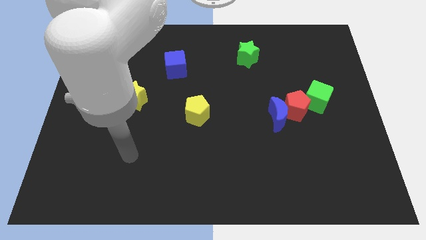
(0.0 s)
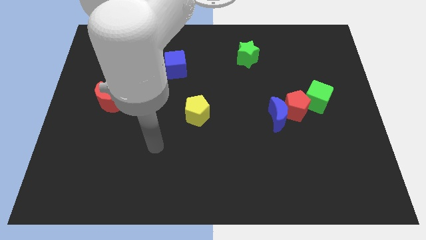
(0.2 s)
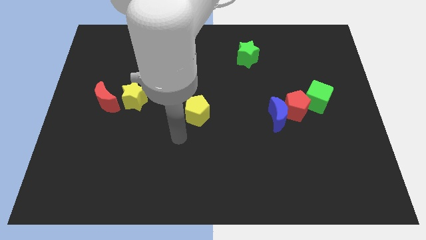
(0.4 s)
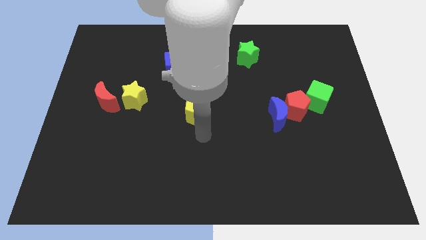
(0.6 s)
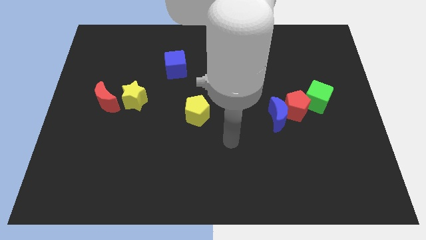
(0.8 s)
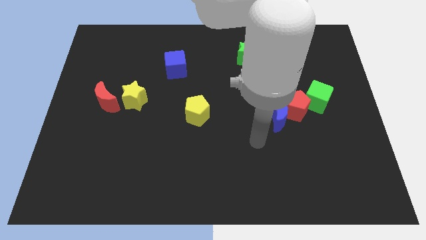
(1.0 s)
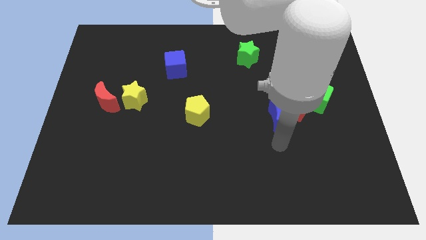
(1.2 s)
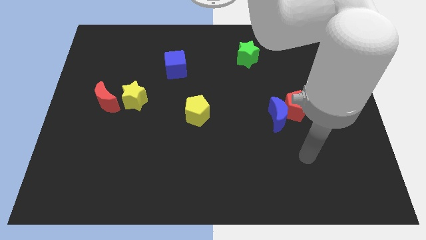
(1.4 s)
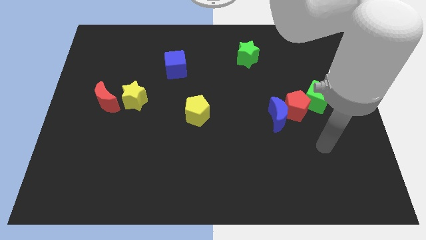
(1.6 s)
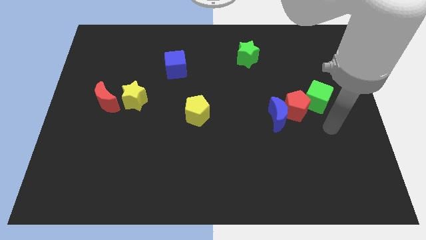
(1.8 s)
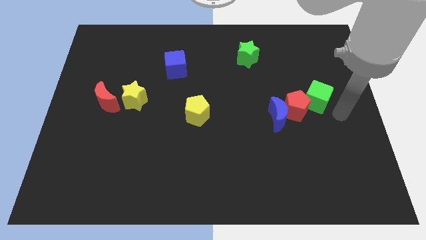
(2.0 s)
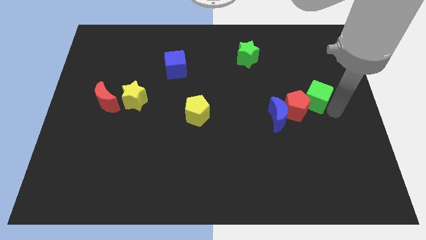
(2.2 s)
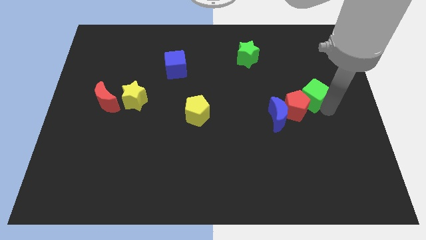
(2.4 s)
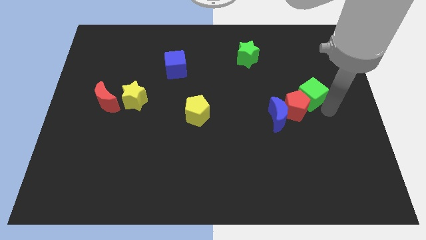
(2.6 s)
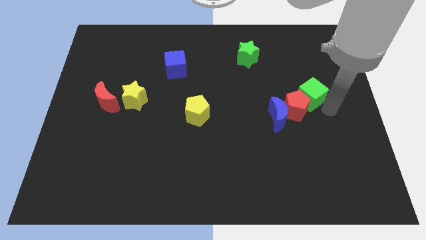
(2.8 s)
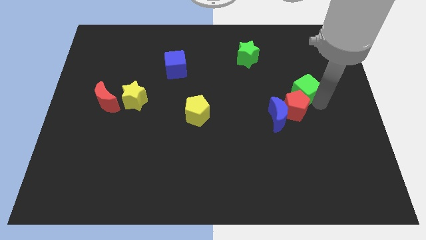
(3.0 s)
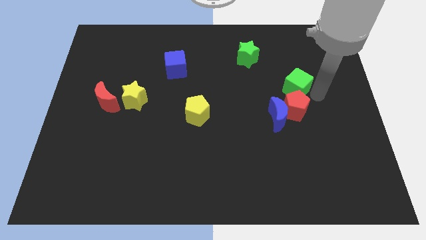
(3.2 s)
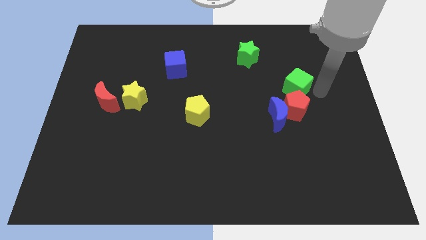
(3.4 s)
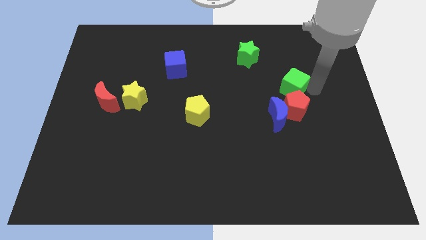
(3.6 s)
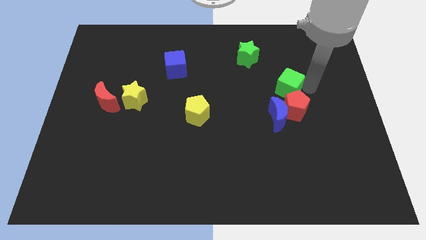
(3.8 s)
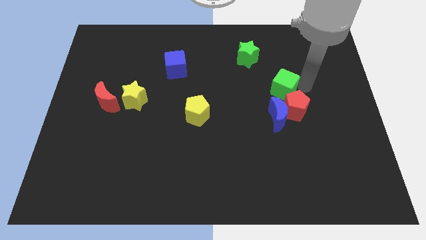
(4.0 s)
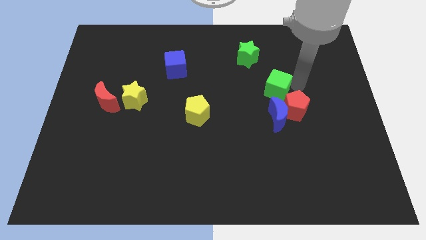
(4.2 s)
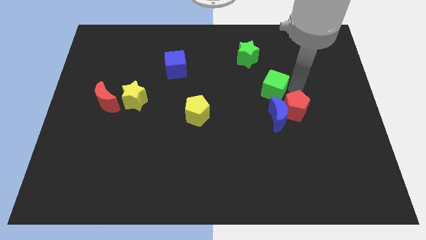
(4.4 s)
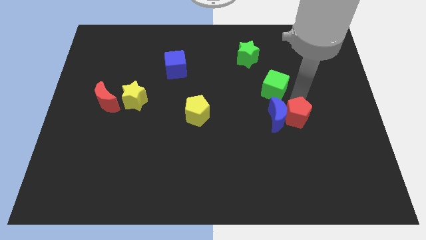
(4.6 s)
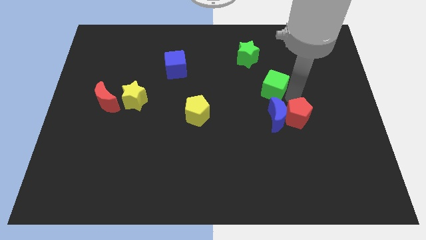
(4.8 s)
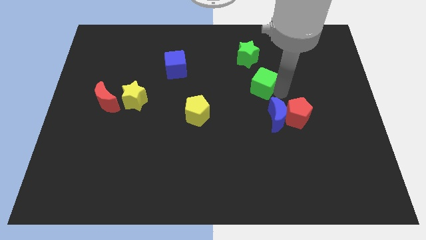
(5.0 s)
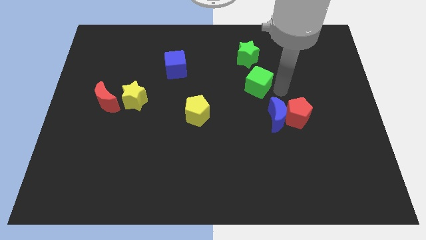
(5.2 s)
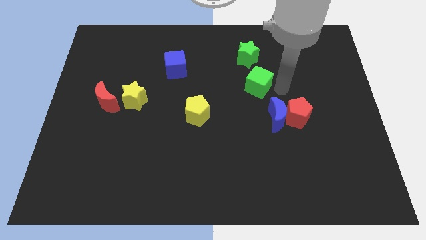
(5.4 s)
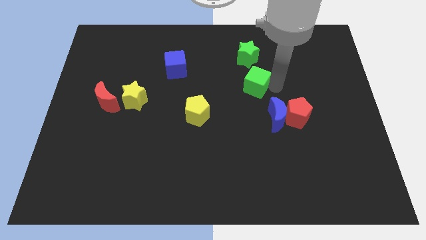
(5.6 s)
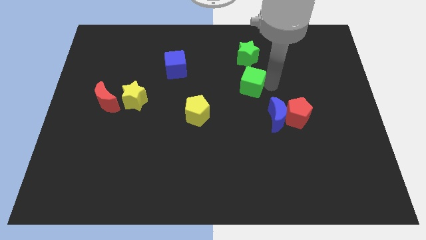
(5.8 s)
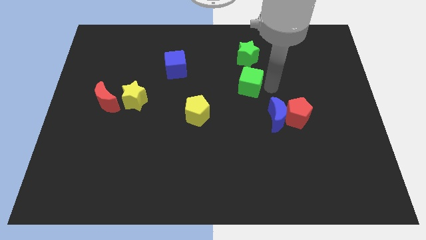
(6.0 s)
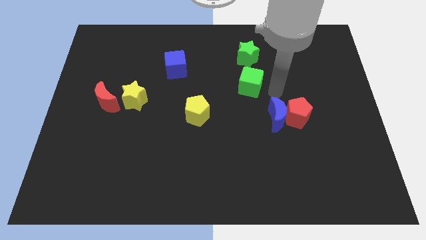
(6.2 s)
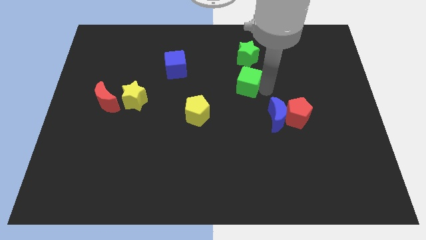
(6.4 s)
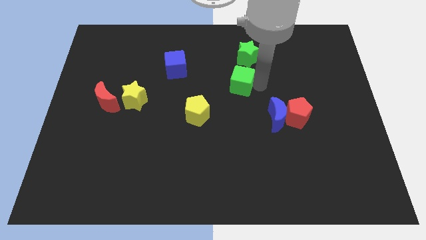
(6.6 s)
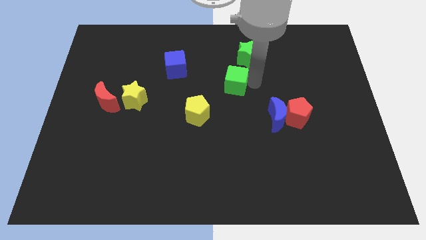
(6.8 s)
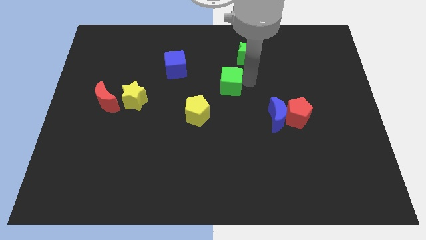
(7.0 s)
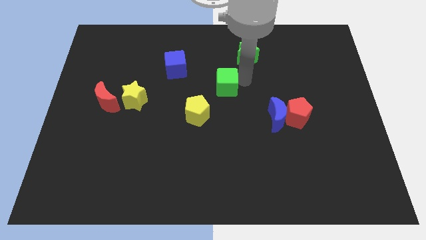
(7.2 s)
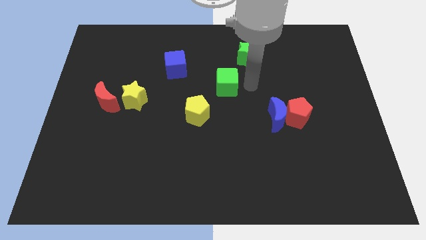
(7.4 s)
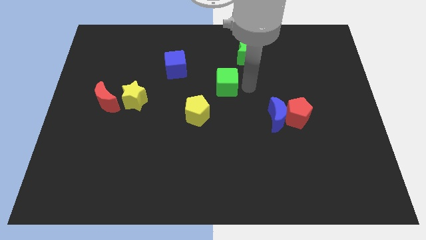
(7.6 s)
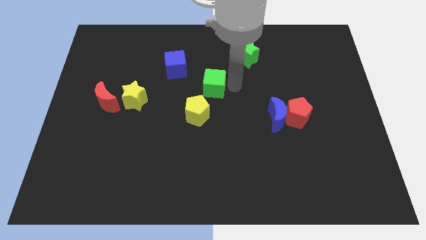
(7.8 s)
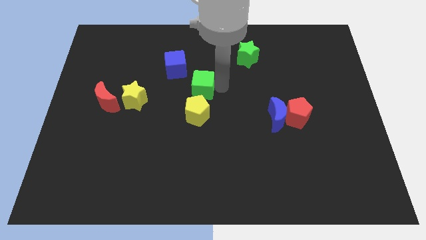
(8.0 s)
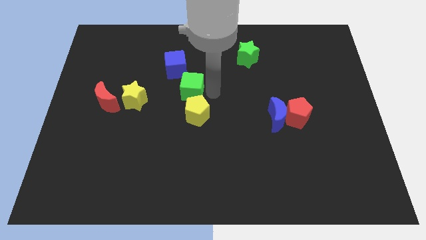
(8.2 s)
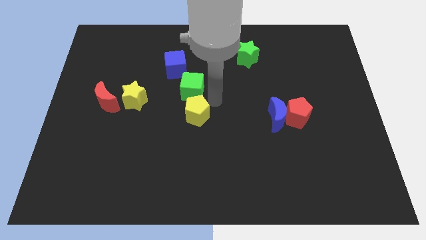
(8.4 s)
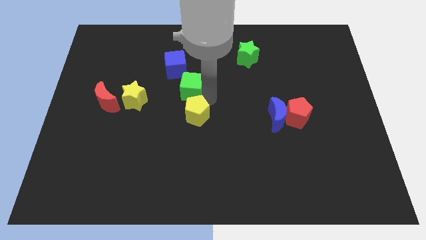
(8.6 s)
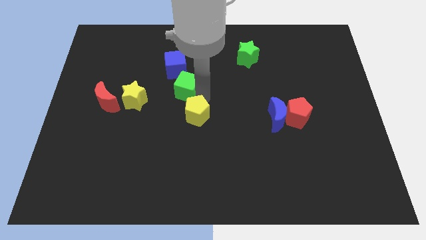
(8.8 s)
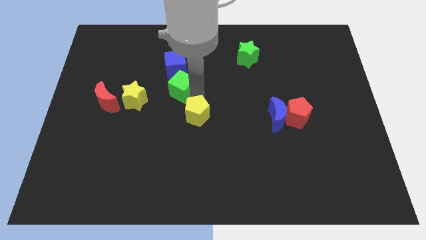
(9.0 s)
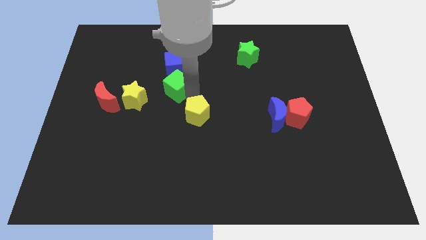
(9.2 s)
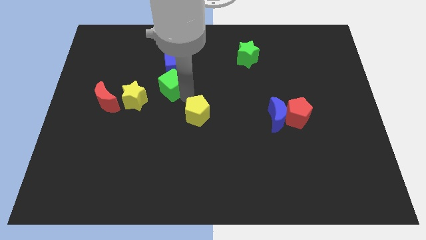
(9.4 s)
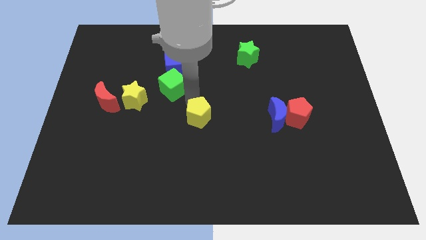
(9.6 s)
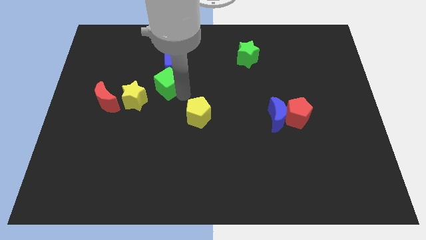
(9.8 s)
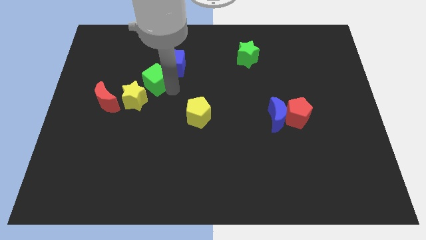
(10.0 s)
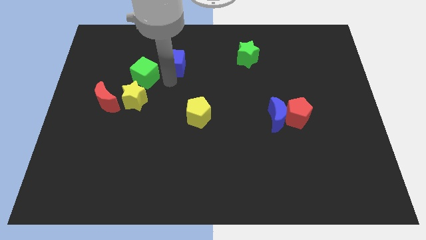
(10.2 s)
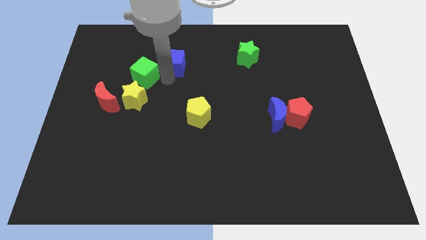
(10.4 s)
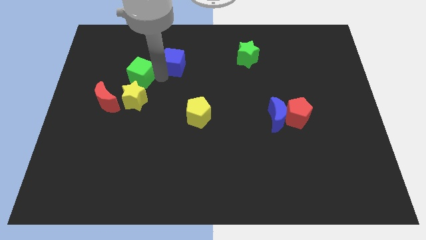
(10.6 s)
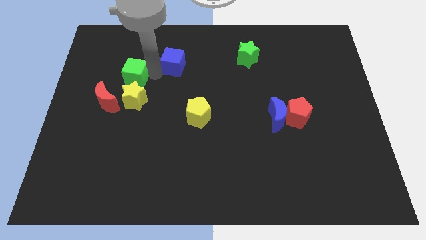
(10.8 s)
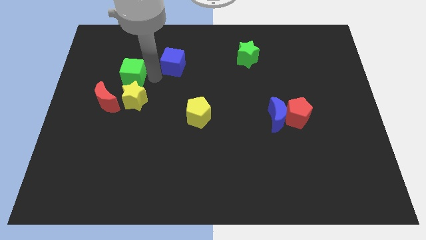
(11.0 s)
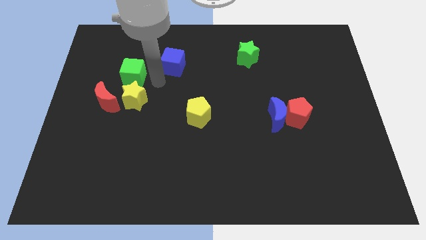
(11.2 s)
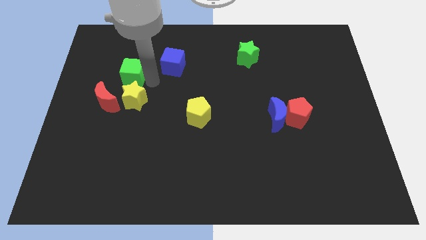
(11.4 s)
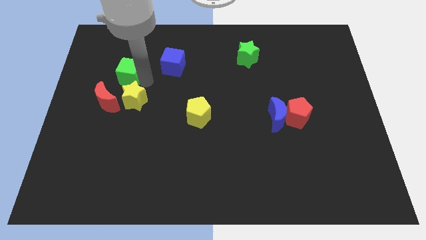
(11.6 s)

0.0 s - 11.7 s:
put the green cube above the red moon

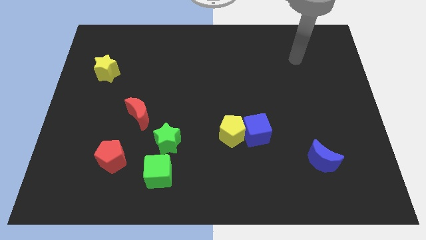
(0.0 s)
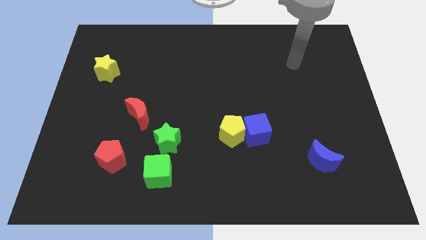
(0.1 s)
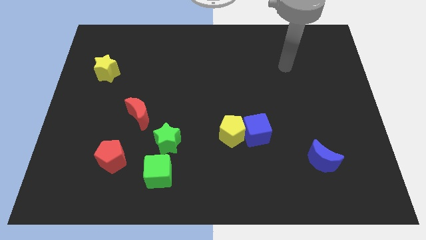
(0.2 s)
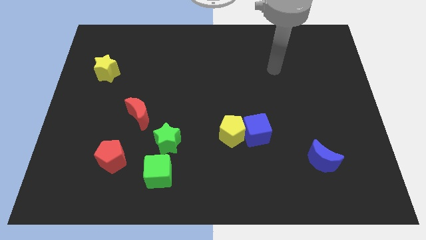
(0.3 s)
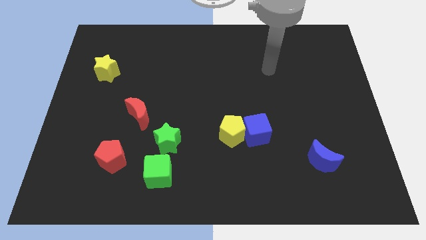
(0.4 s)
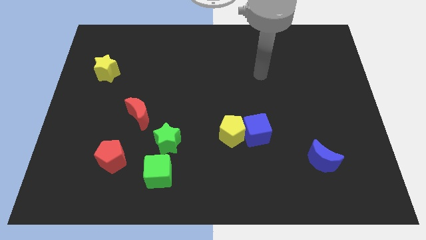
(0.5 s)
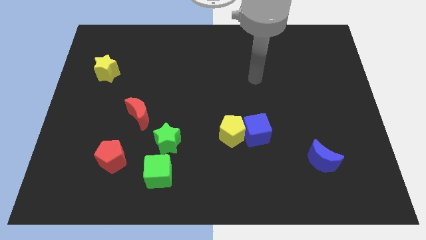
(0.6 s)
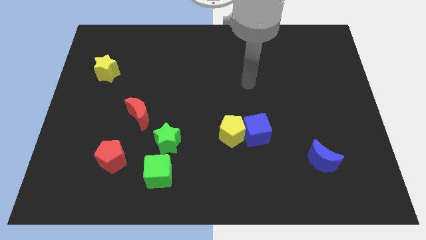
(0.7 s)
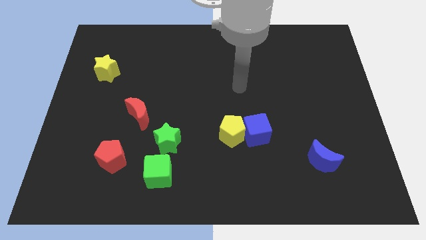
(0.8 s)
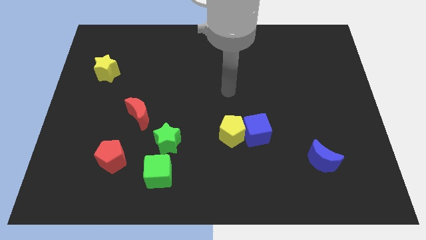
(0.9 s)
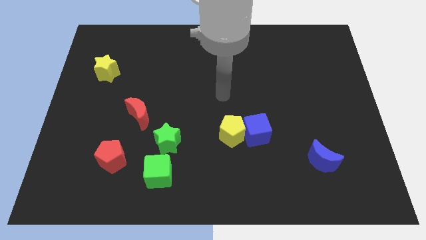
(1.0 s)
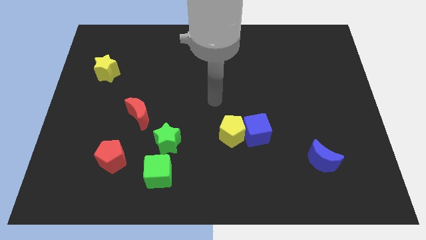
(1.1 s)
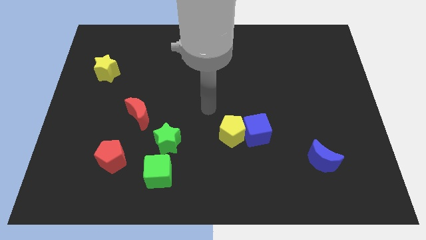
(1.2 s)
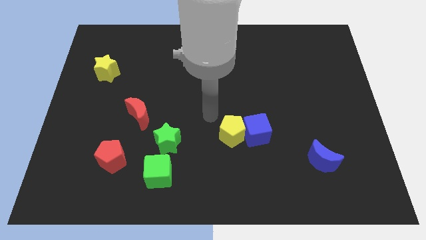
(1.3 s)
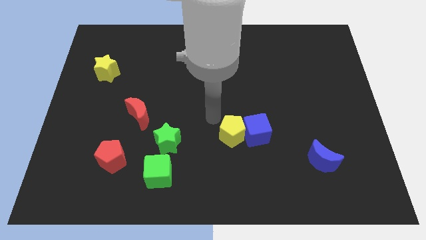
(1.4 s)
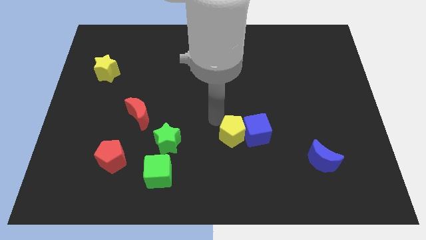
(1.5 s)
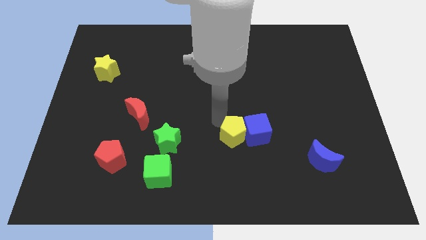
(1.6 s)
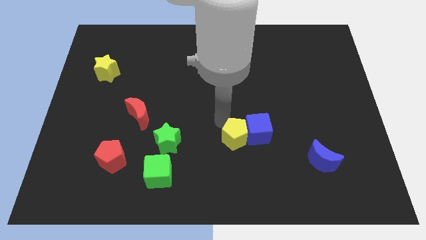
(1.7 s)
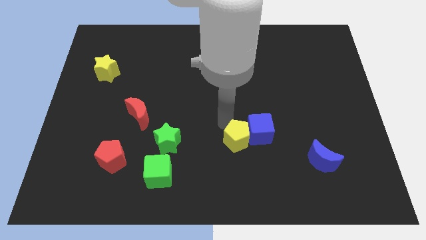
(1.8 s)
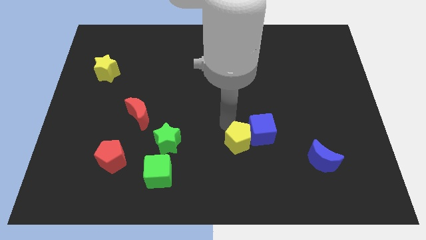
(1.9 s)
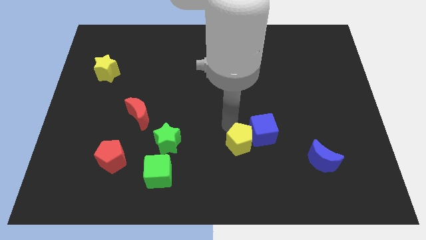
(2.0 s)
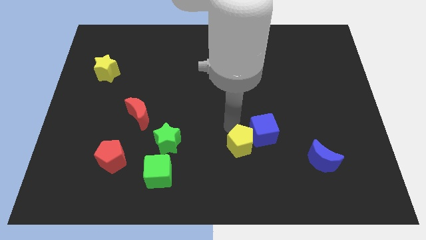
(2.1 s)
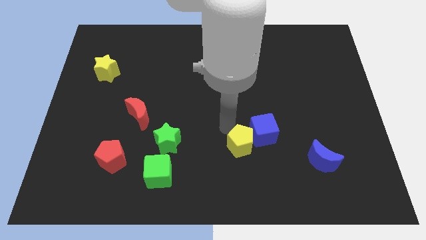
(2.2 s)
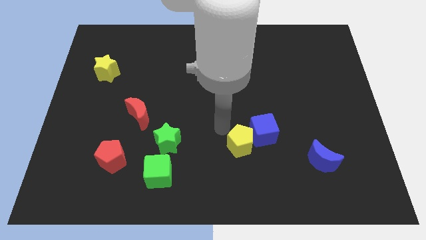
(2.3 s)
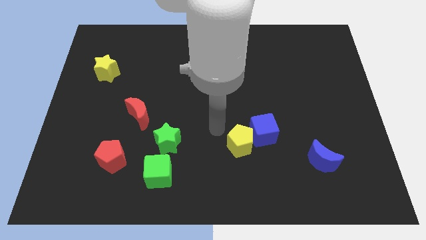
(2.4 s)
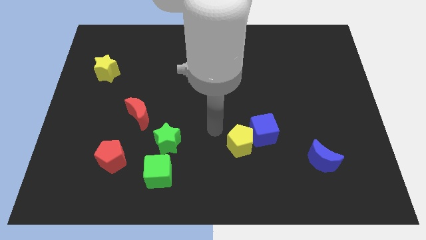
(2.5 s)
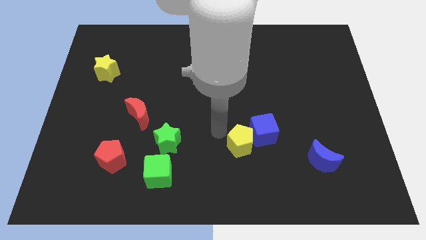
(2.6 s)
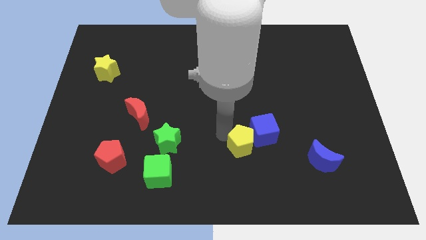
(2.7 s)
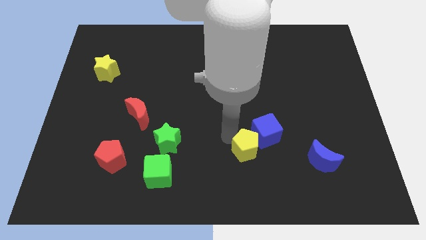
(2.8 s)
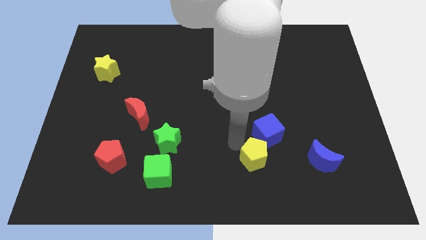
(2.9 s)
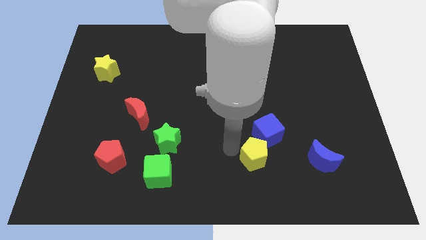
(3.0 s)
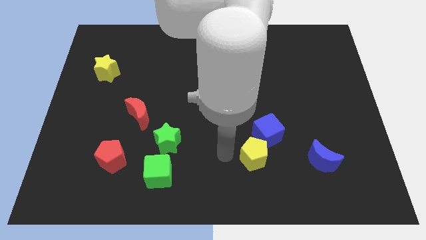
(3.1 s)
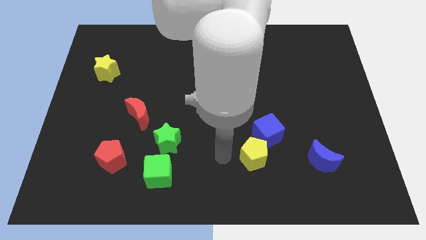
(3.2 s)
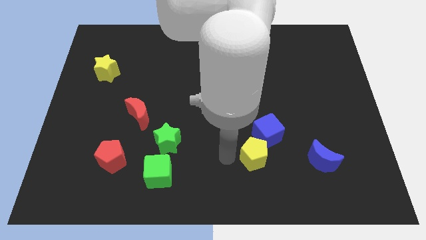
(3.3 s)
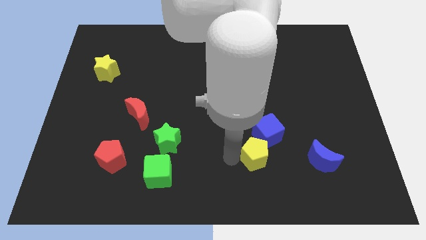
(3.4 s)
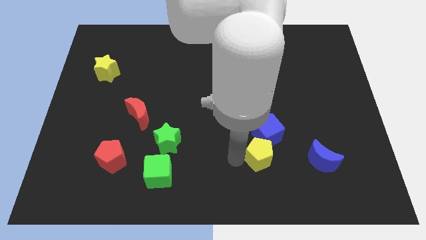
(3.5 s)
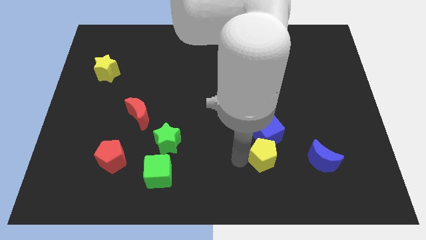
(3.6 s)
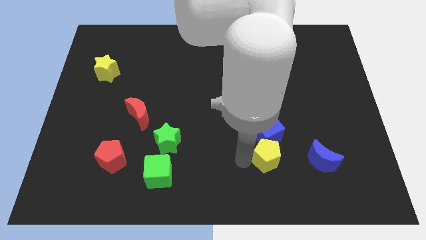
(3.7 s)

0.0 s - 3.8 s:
push the yellow pentagon diagonally down and to the right of the blue cube
